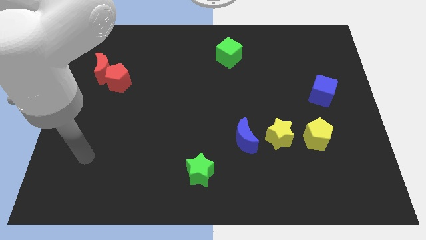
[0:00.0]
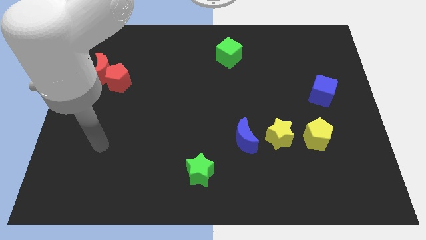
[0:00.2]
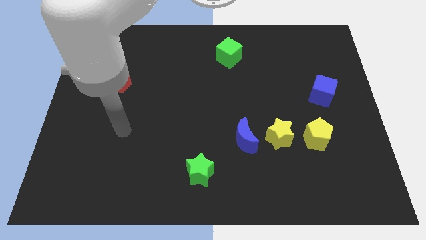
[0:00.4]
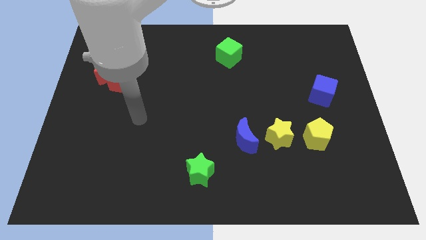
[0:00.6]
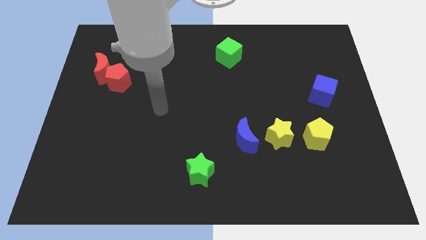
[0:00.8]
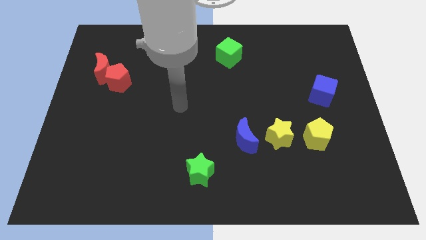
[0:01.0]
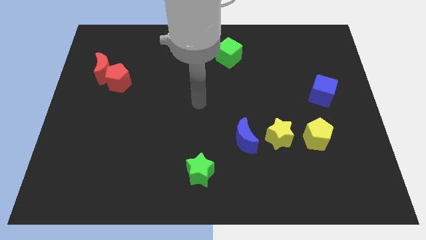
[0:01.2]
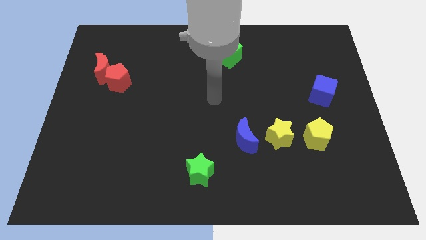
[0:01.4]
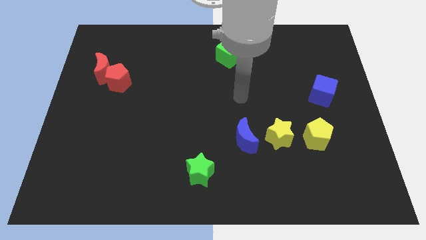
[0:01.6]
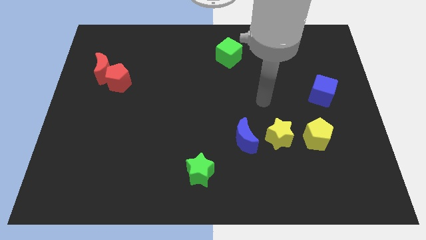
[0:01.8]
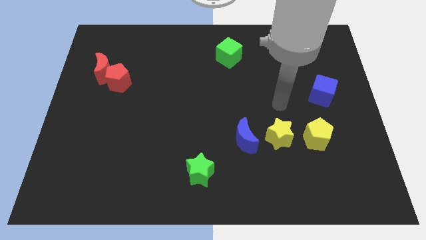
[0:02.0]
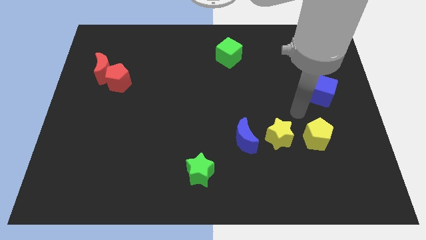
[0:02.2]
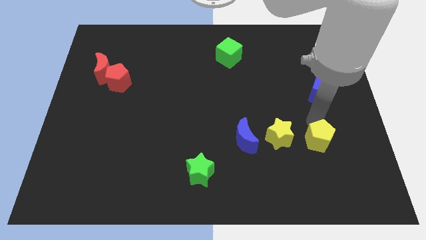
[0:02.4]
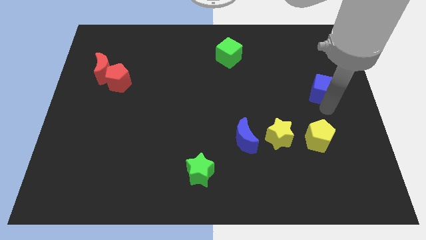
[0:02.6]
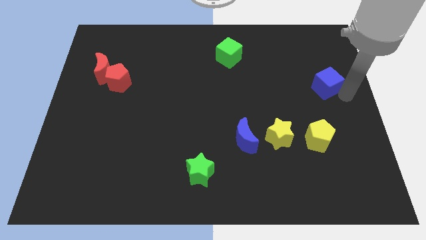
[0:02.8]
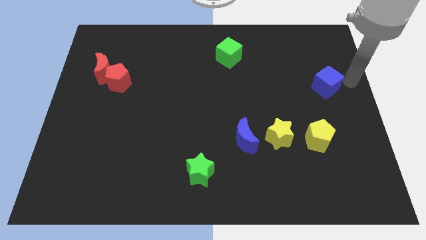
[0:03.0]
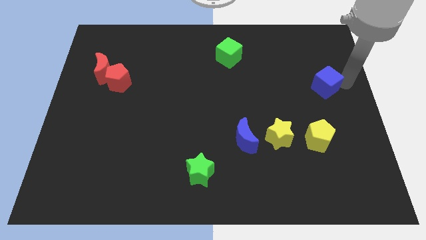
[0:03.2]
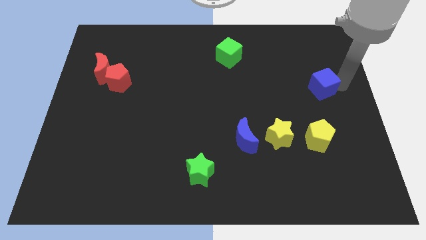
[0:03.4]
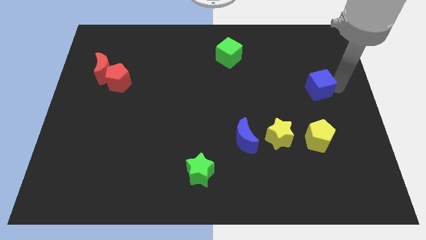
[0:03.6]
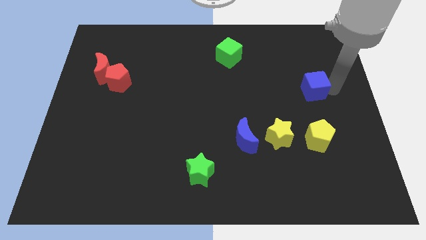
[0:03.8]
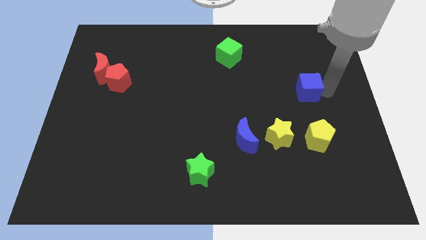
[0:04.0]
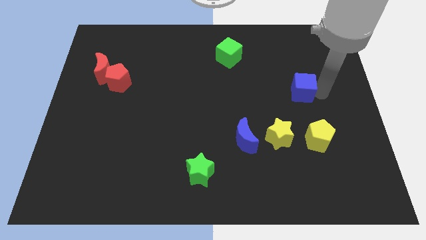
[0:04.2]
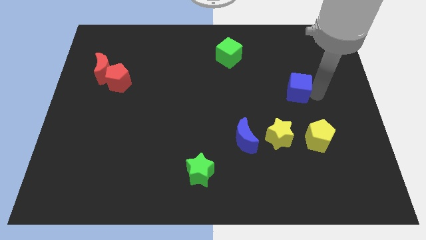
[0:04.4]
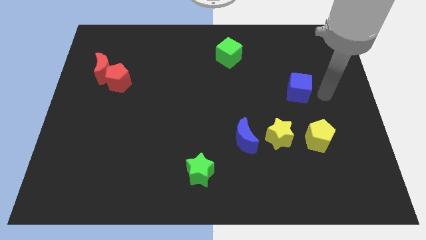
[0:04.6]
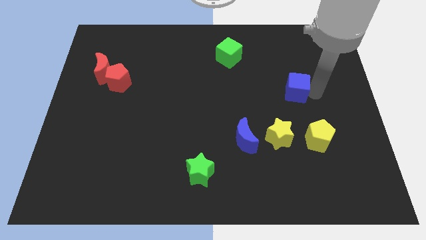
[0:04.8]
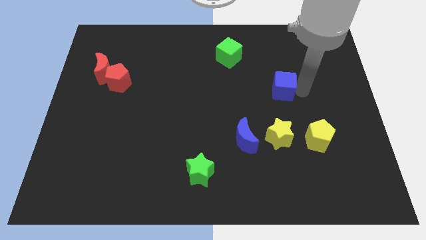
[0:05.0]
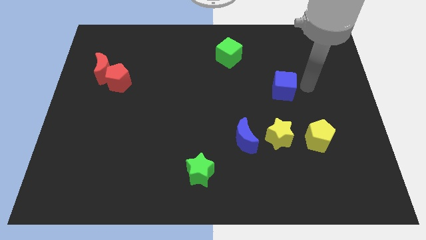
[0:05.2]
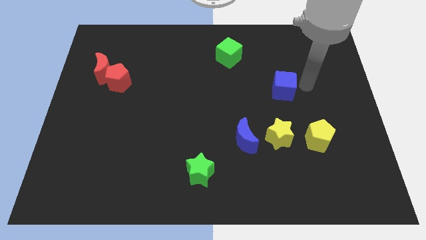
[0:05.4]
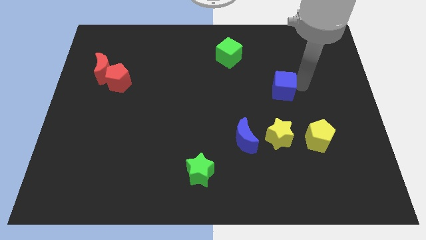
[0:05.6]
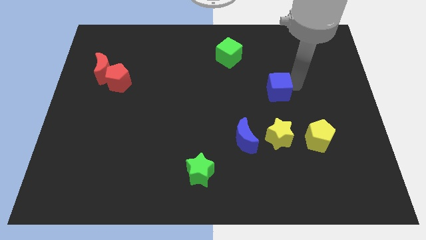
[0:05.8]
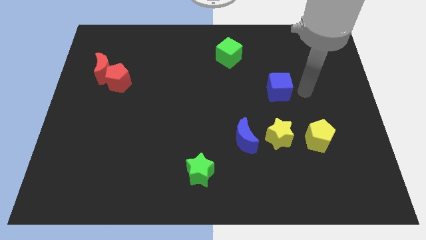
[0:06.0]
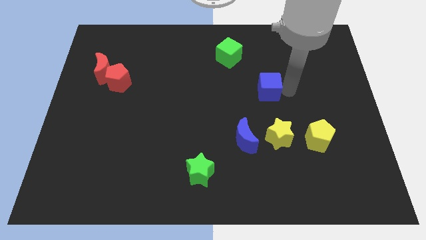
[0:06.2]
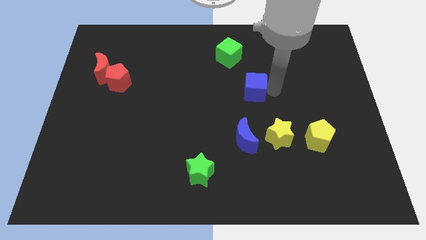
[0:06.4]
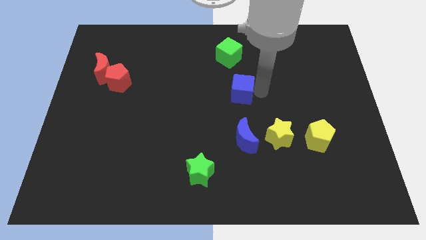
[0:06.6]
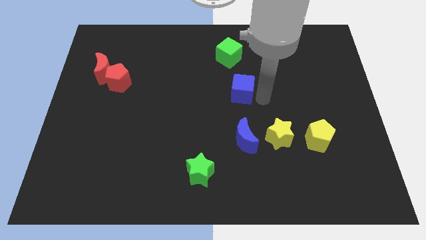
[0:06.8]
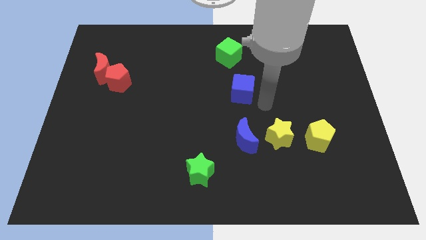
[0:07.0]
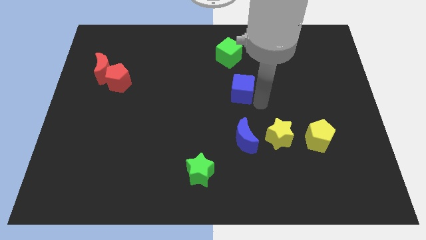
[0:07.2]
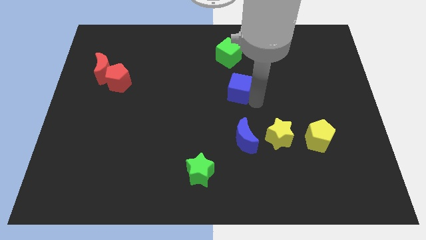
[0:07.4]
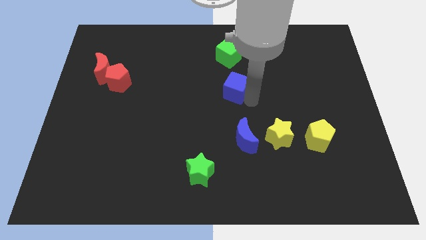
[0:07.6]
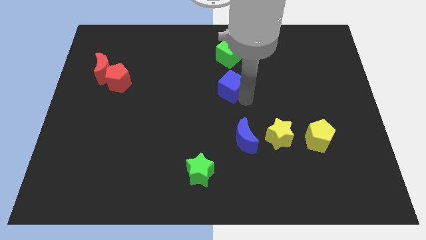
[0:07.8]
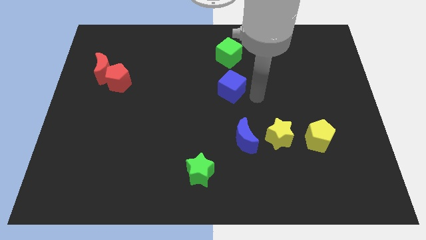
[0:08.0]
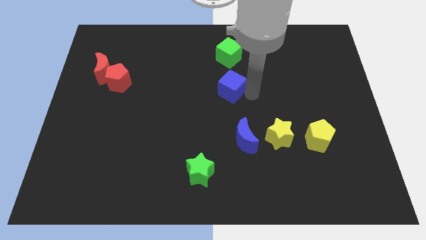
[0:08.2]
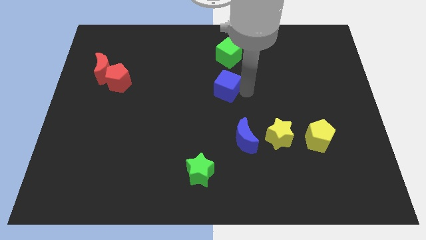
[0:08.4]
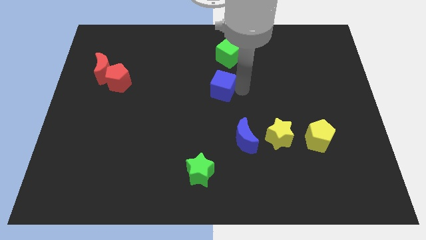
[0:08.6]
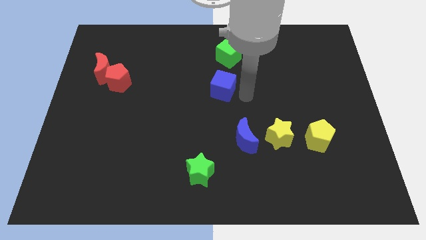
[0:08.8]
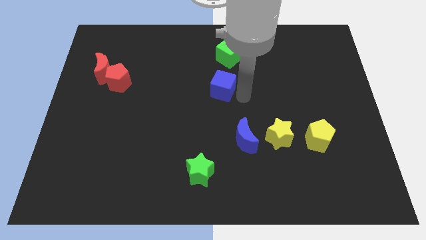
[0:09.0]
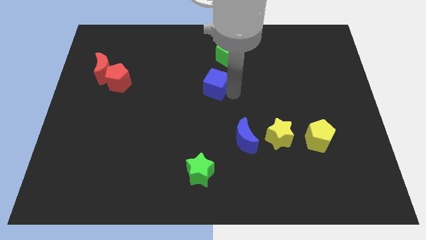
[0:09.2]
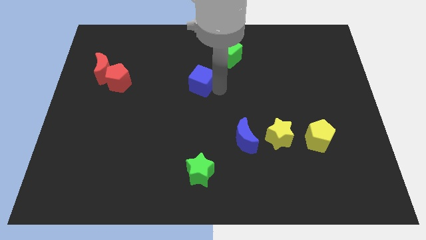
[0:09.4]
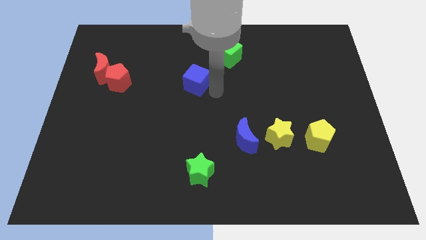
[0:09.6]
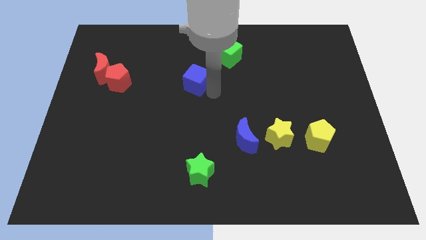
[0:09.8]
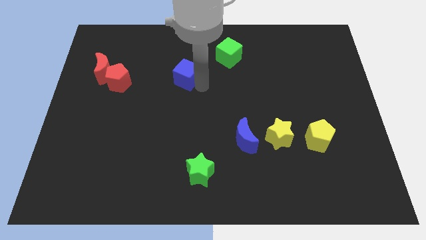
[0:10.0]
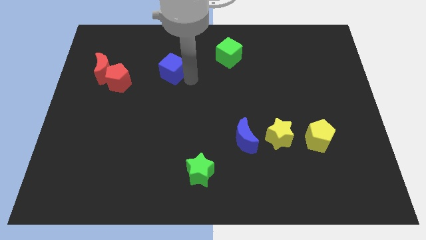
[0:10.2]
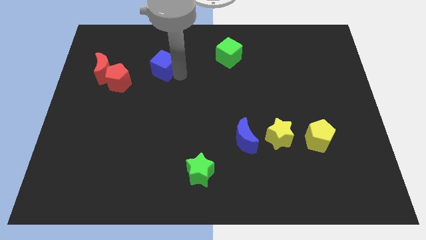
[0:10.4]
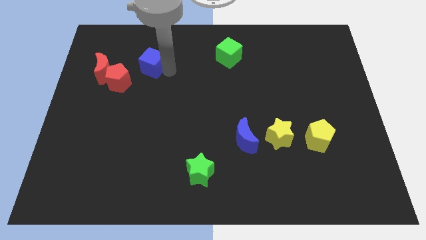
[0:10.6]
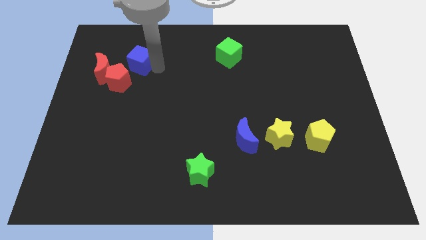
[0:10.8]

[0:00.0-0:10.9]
move the blue cube to the top right of the red moon
